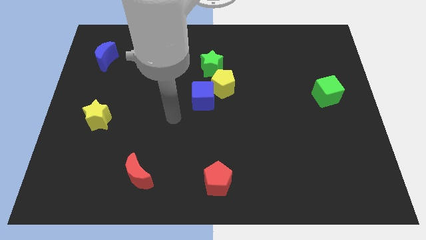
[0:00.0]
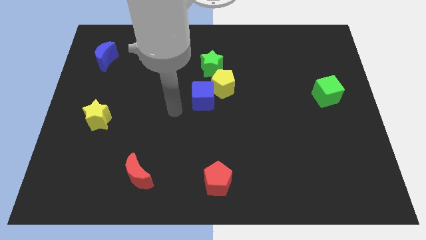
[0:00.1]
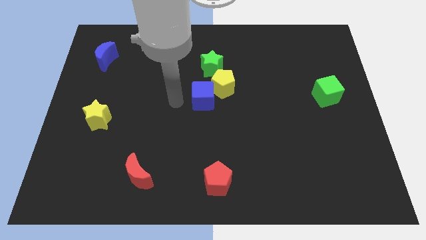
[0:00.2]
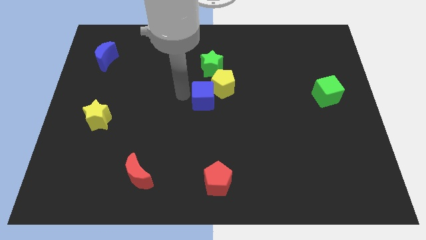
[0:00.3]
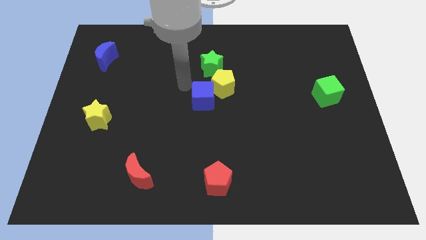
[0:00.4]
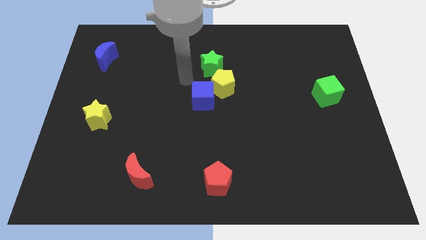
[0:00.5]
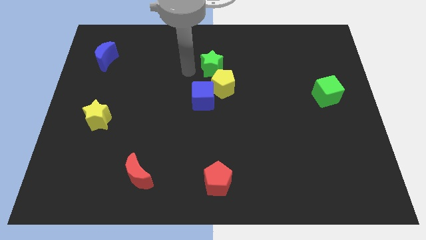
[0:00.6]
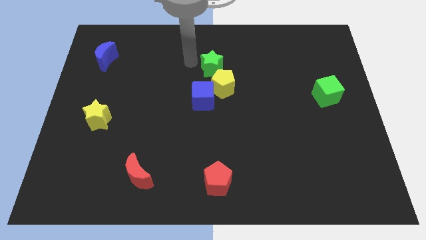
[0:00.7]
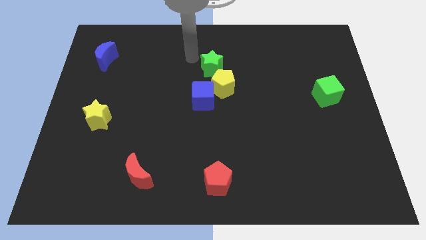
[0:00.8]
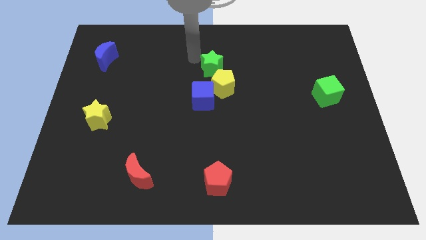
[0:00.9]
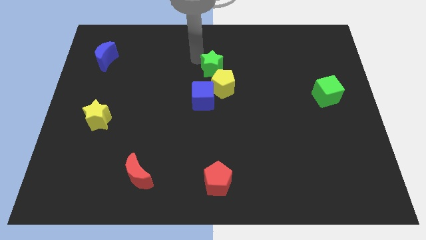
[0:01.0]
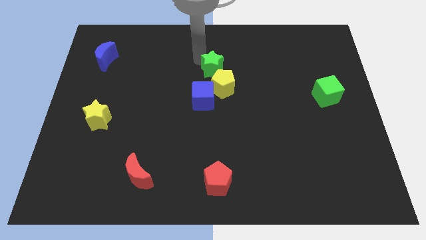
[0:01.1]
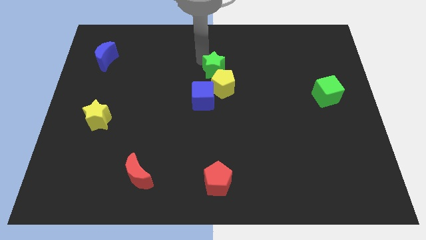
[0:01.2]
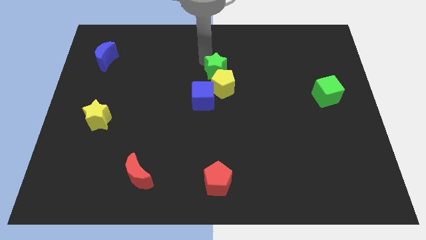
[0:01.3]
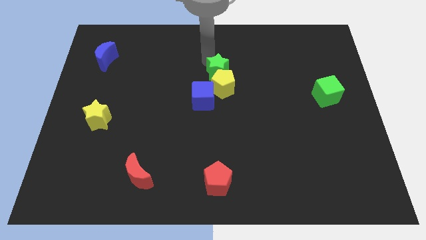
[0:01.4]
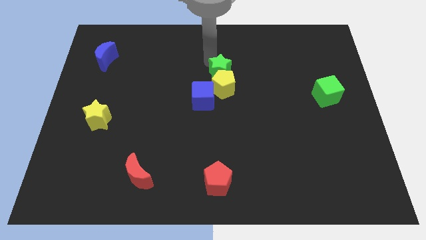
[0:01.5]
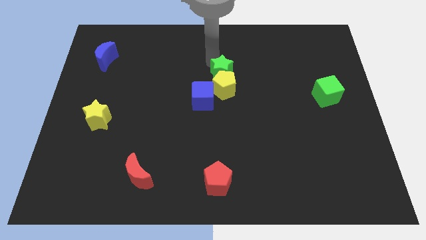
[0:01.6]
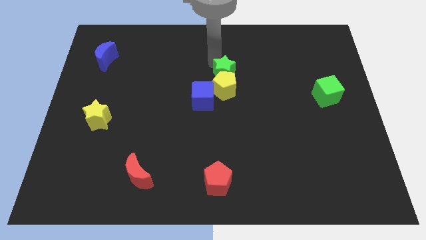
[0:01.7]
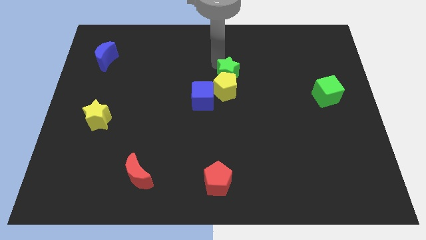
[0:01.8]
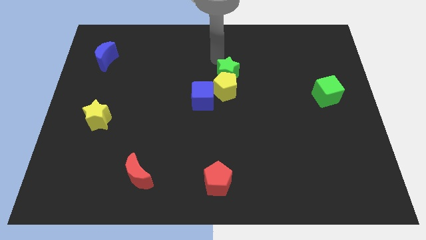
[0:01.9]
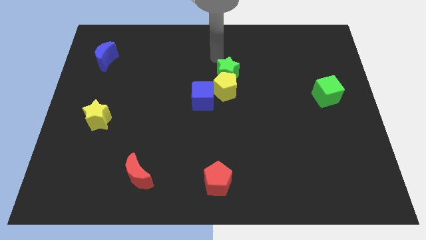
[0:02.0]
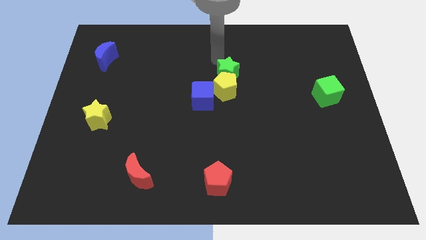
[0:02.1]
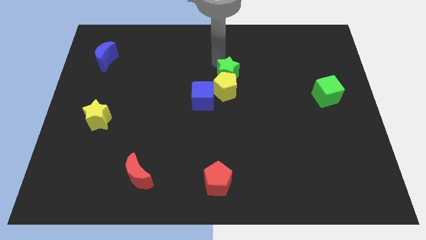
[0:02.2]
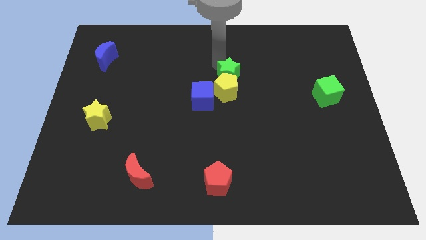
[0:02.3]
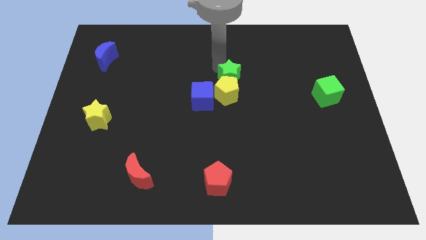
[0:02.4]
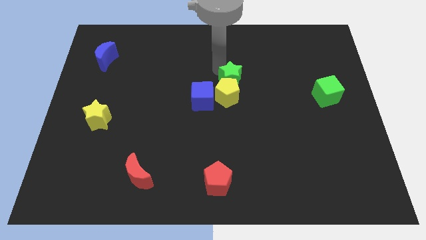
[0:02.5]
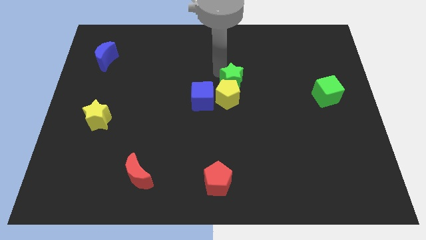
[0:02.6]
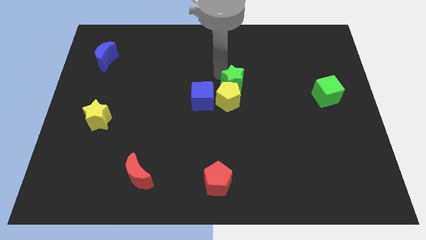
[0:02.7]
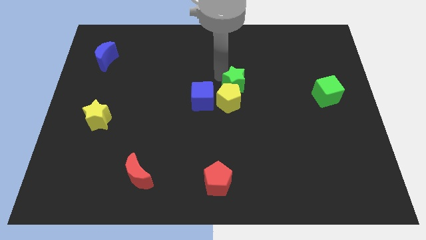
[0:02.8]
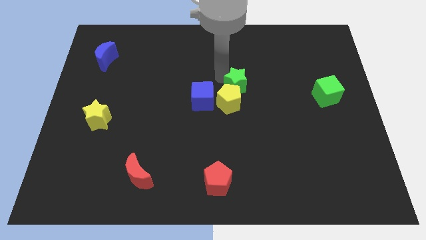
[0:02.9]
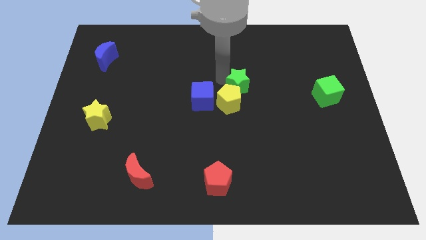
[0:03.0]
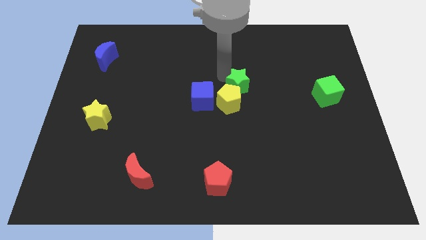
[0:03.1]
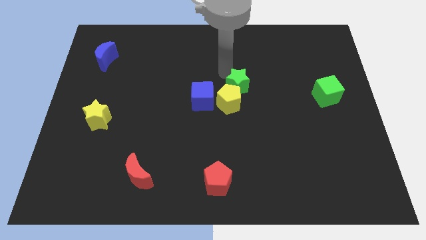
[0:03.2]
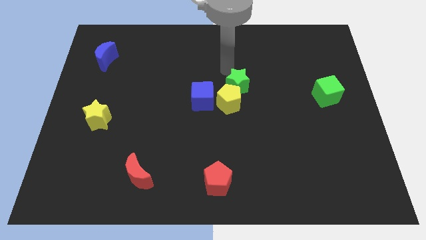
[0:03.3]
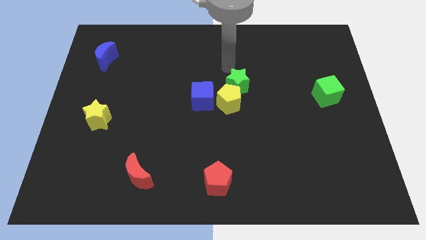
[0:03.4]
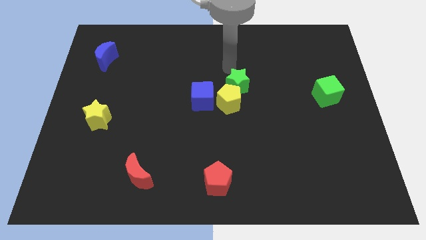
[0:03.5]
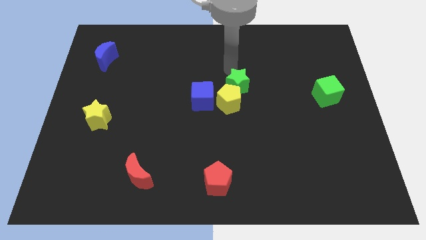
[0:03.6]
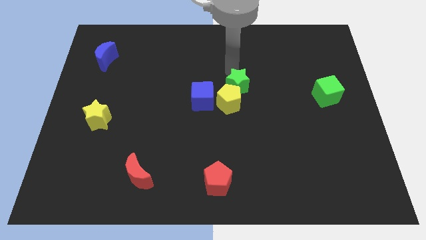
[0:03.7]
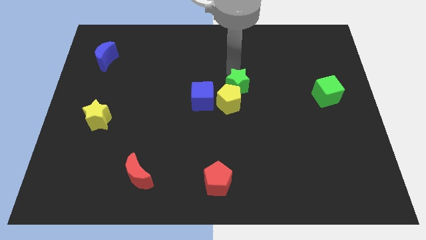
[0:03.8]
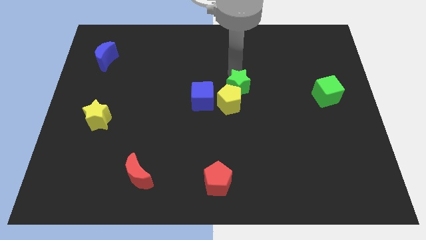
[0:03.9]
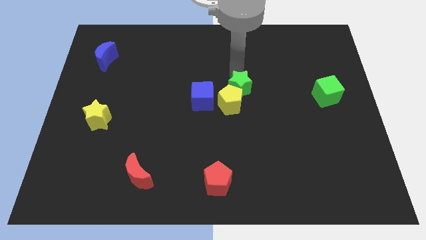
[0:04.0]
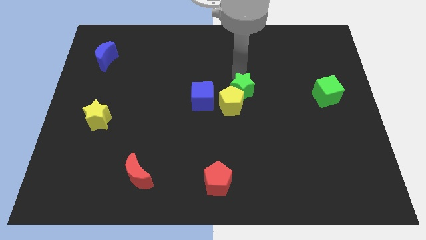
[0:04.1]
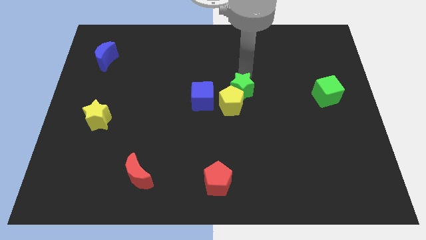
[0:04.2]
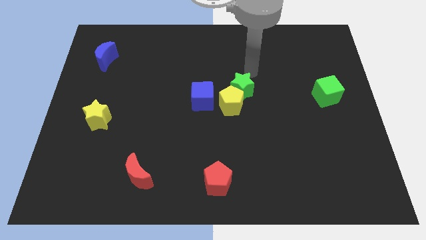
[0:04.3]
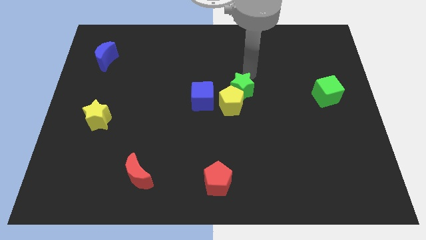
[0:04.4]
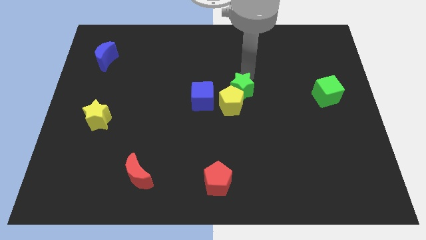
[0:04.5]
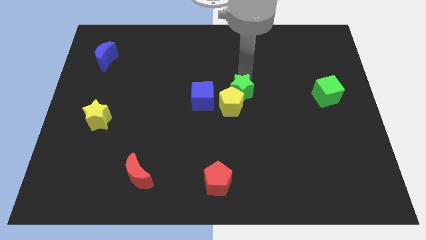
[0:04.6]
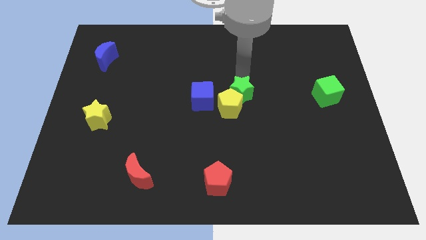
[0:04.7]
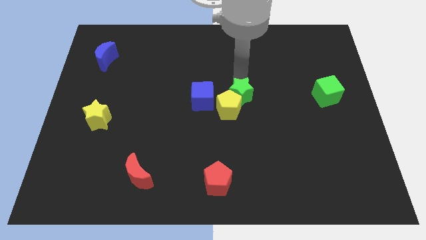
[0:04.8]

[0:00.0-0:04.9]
slightly slide the green star downwards

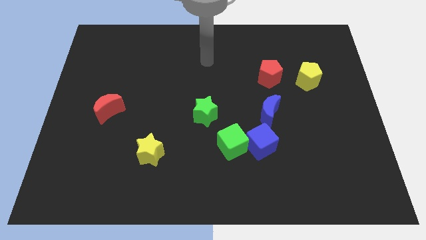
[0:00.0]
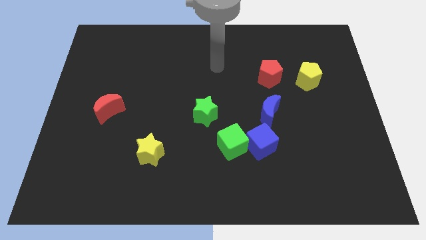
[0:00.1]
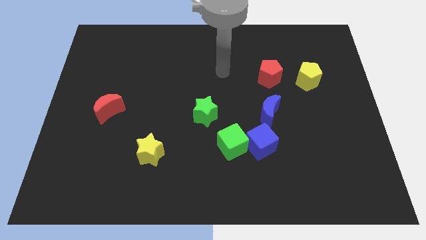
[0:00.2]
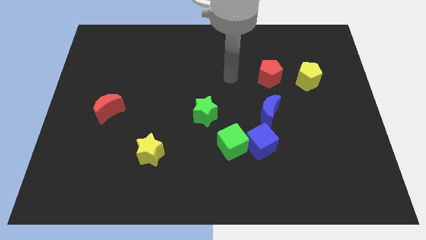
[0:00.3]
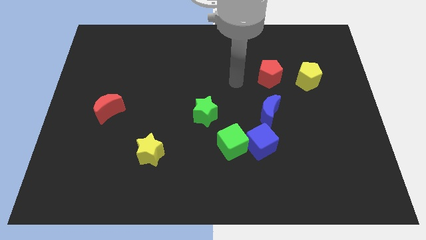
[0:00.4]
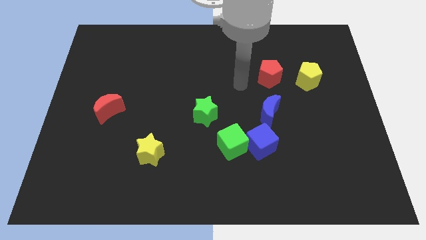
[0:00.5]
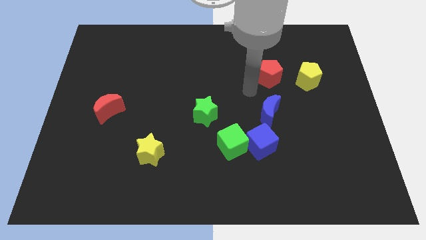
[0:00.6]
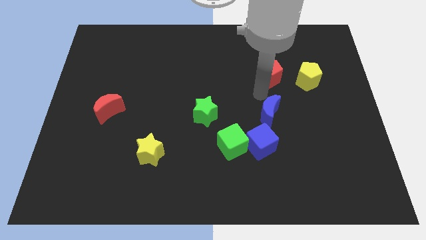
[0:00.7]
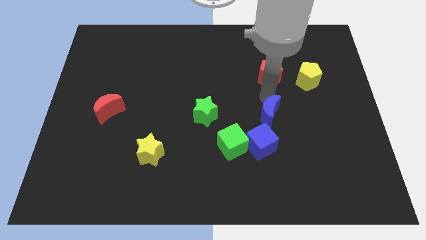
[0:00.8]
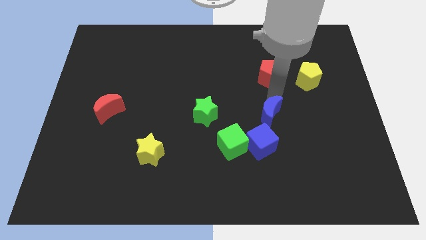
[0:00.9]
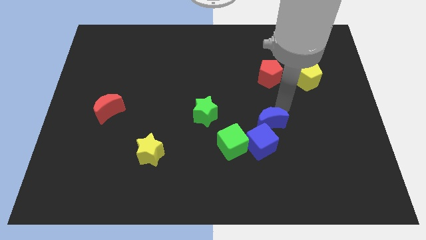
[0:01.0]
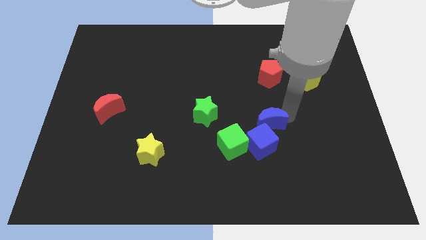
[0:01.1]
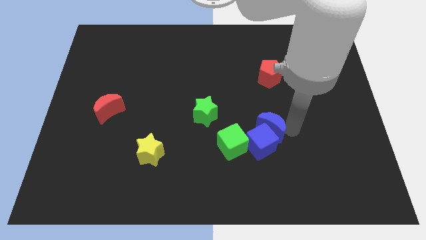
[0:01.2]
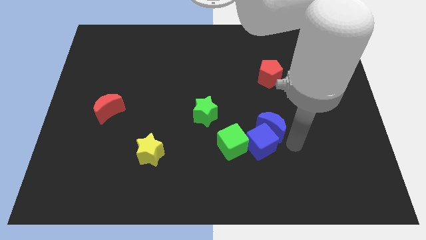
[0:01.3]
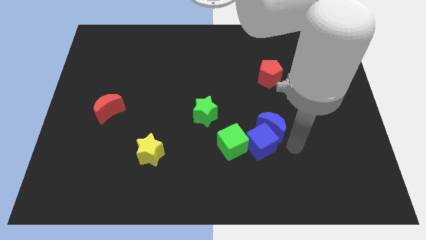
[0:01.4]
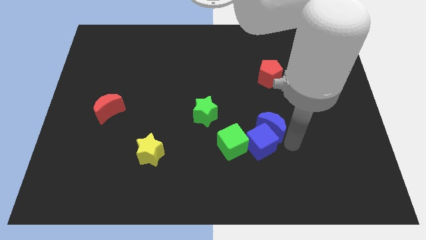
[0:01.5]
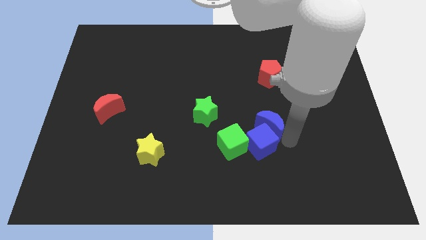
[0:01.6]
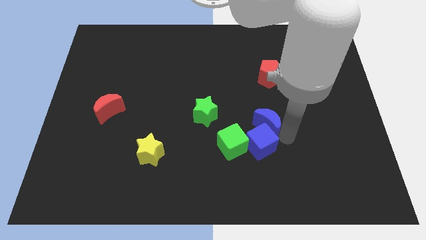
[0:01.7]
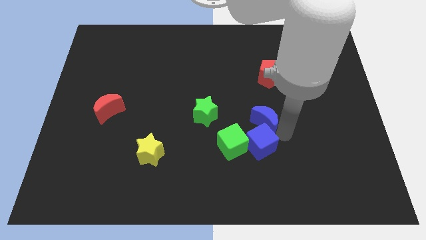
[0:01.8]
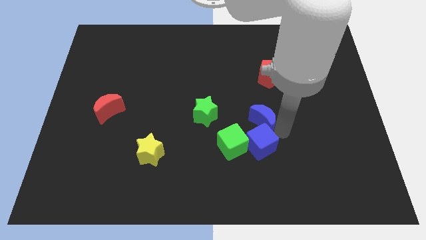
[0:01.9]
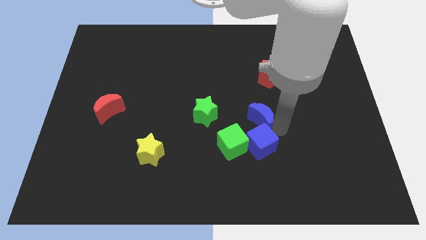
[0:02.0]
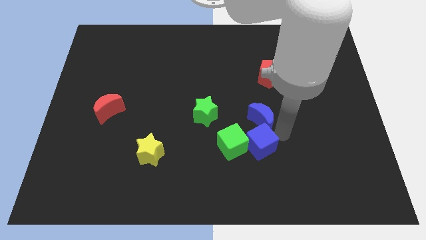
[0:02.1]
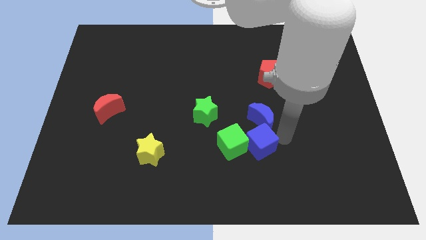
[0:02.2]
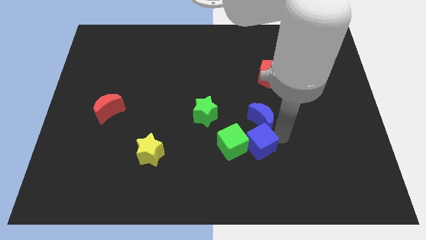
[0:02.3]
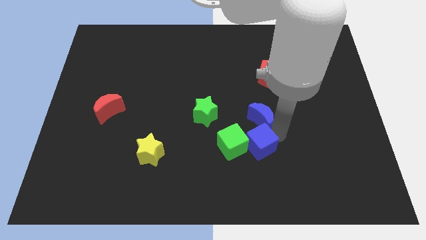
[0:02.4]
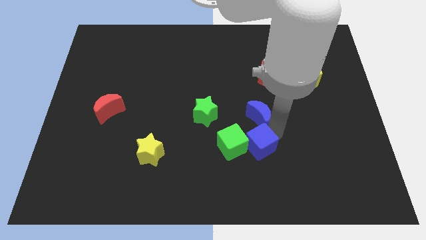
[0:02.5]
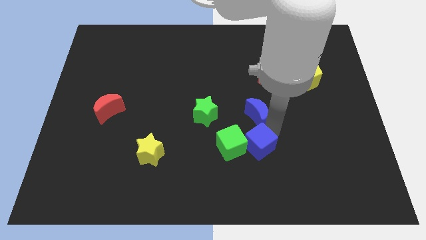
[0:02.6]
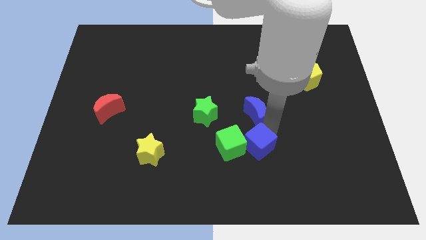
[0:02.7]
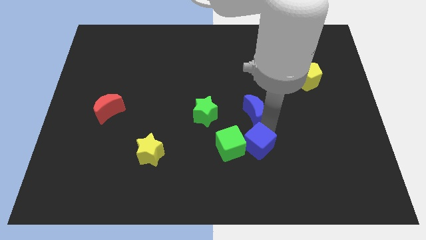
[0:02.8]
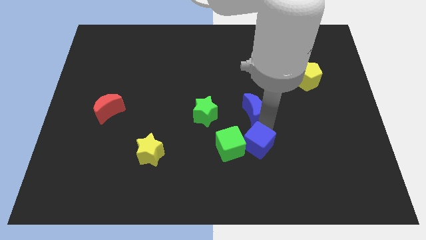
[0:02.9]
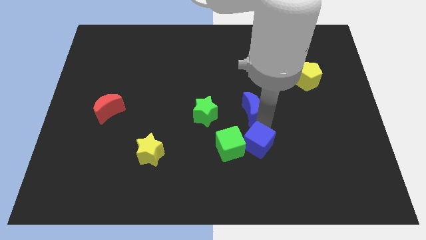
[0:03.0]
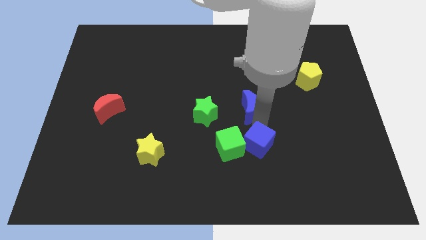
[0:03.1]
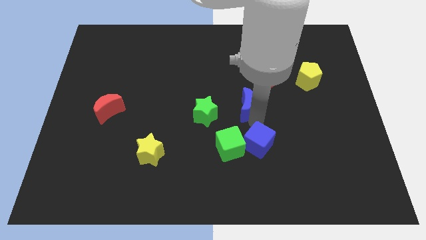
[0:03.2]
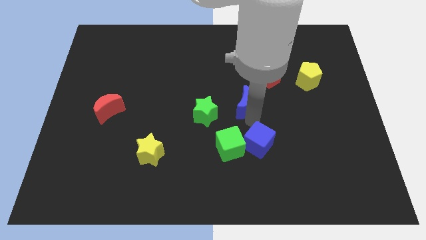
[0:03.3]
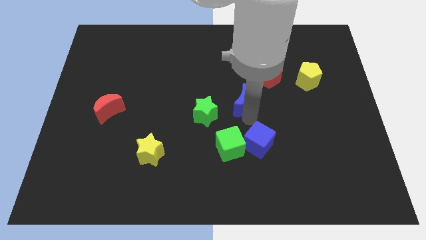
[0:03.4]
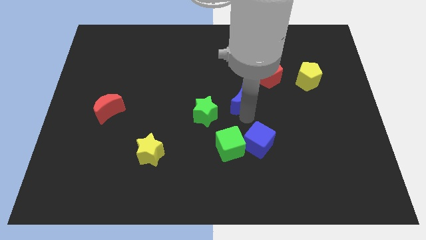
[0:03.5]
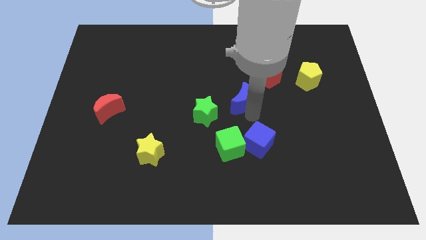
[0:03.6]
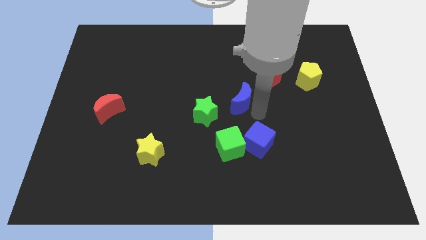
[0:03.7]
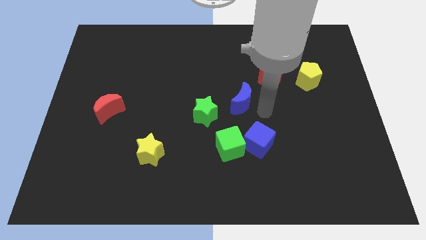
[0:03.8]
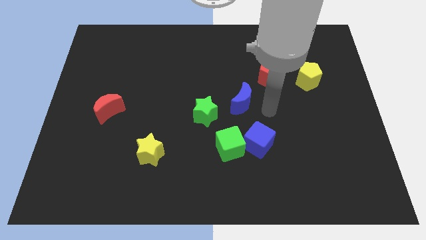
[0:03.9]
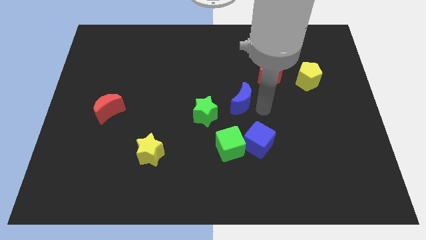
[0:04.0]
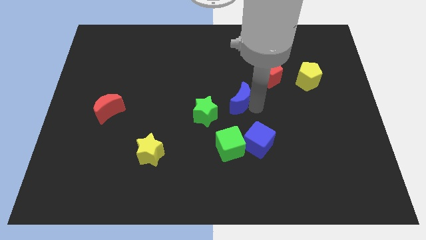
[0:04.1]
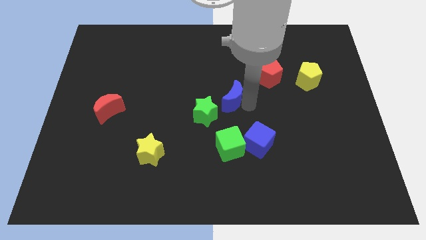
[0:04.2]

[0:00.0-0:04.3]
slightly push the blue moon left
